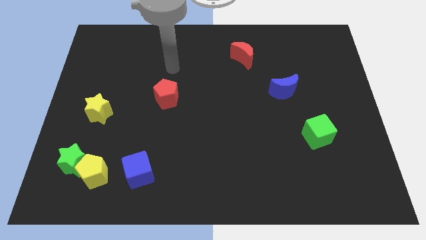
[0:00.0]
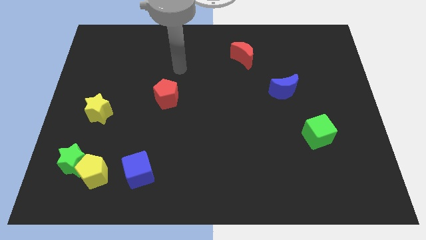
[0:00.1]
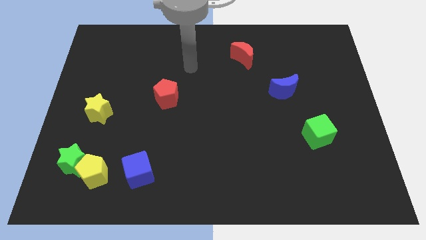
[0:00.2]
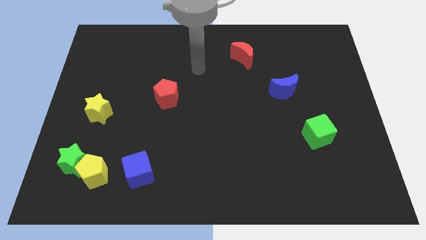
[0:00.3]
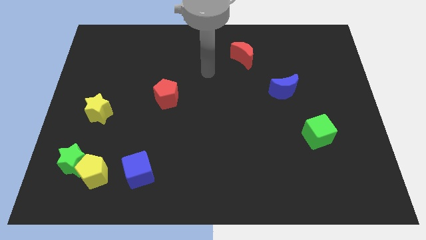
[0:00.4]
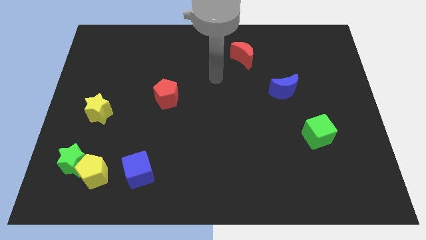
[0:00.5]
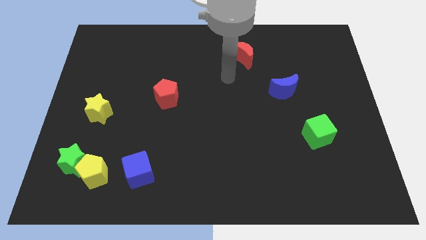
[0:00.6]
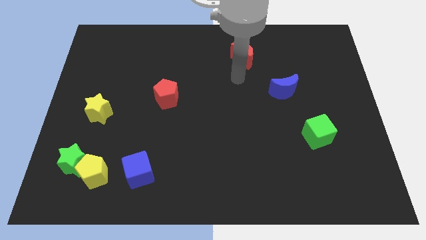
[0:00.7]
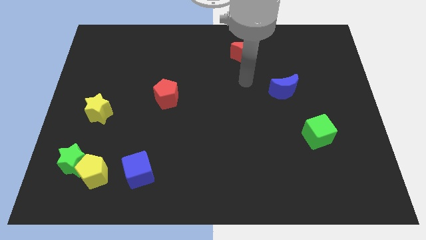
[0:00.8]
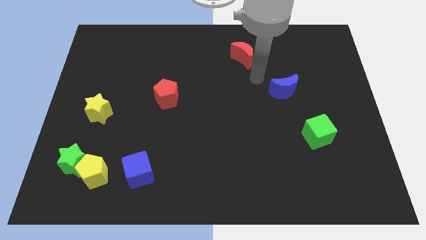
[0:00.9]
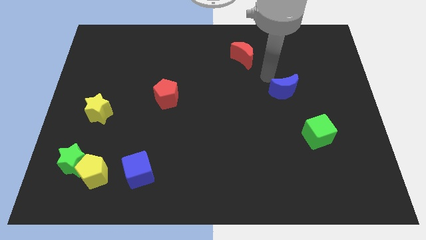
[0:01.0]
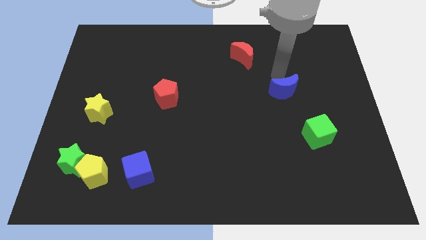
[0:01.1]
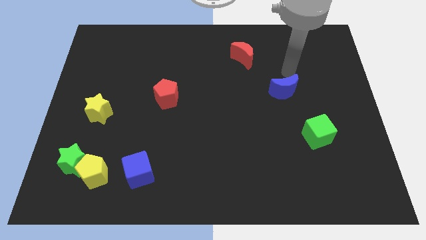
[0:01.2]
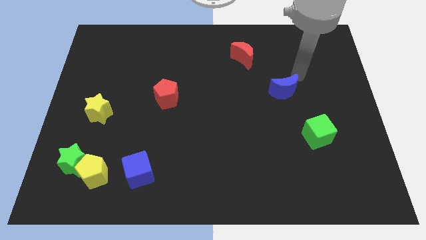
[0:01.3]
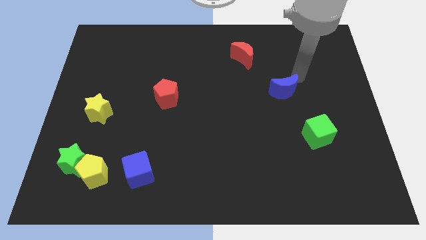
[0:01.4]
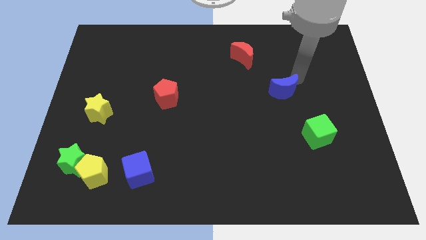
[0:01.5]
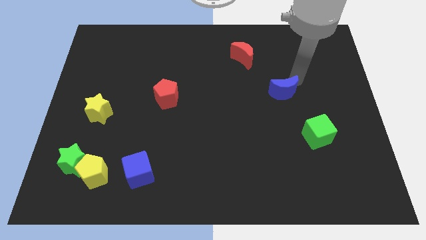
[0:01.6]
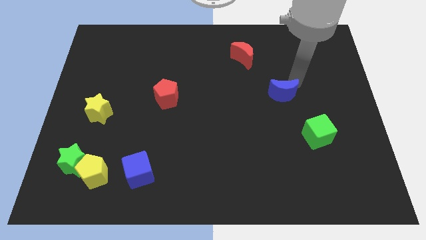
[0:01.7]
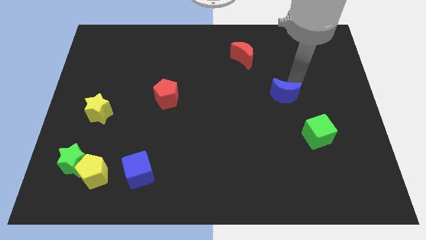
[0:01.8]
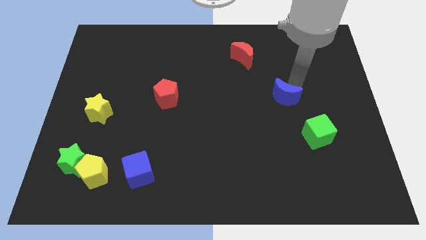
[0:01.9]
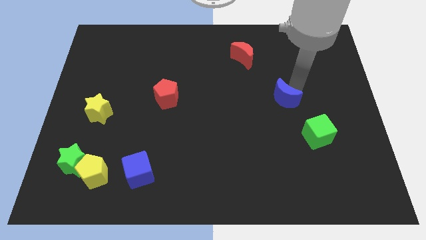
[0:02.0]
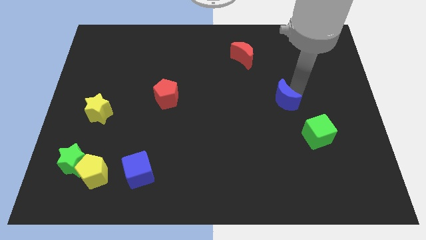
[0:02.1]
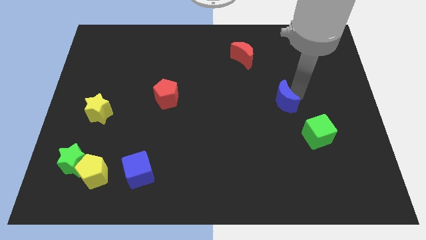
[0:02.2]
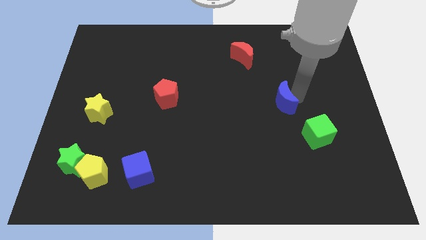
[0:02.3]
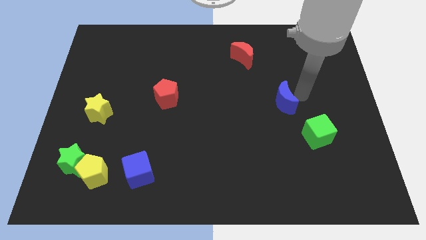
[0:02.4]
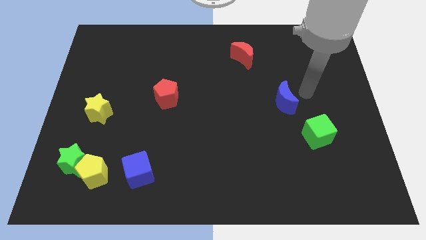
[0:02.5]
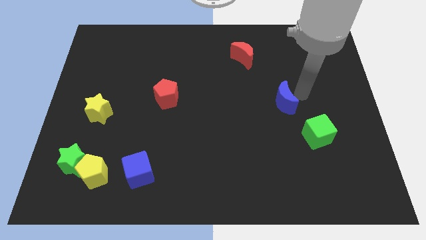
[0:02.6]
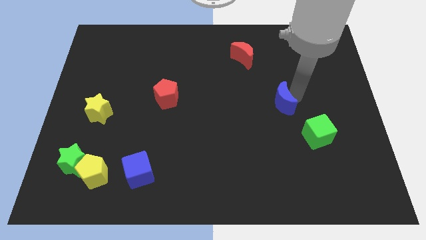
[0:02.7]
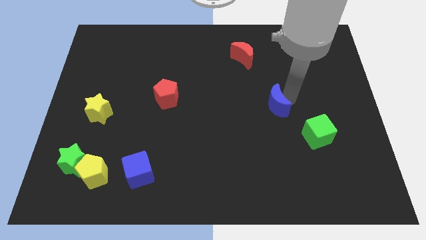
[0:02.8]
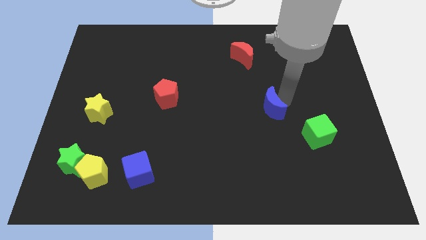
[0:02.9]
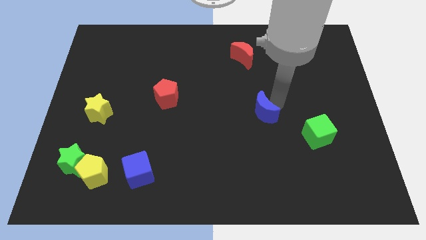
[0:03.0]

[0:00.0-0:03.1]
slide the blue moon diagonally down and left somewhat

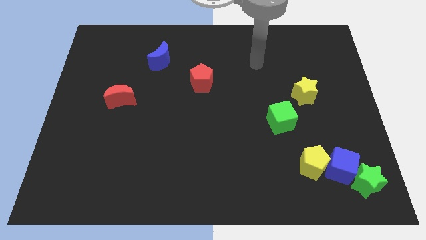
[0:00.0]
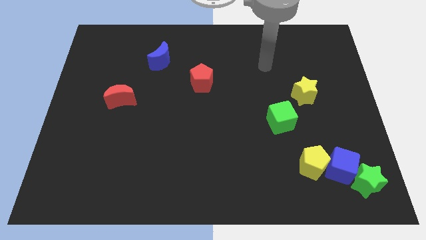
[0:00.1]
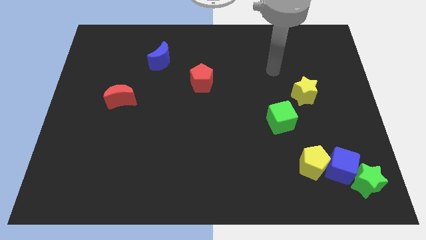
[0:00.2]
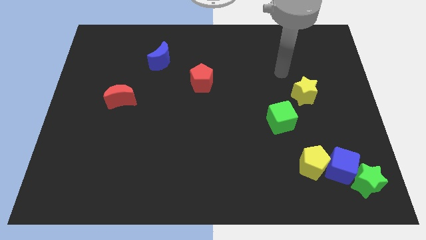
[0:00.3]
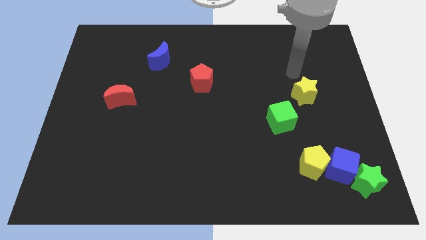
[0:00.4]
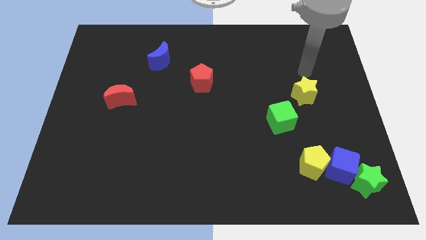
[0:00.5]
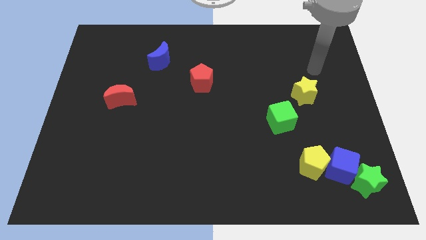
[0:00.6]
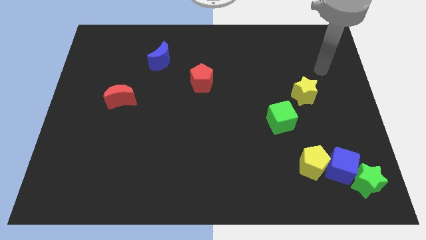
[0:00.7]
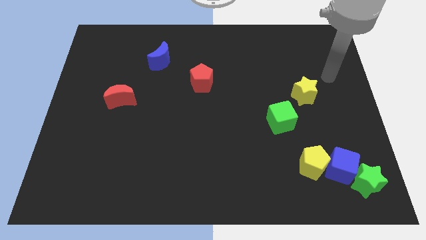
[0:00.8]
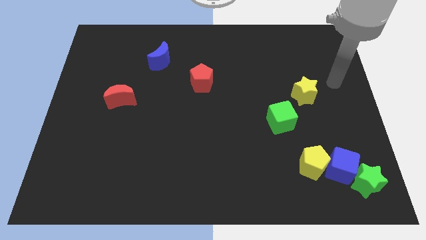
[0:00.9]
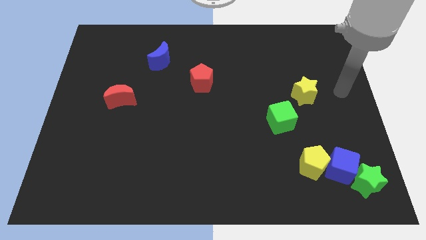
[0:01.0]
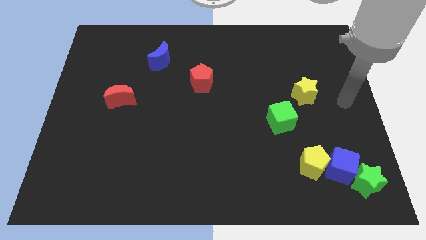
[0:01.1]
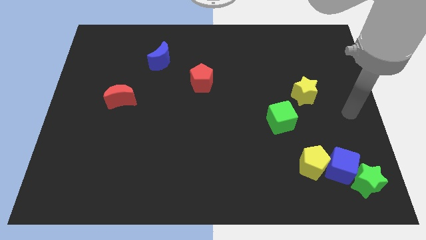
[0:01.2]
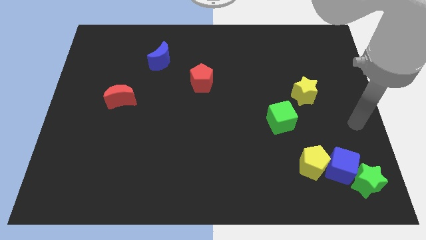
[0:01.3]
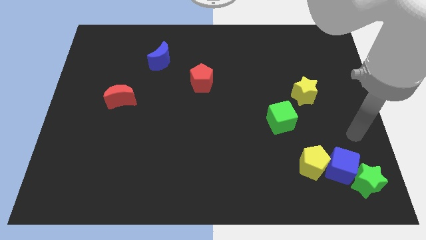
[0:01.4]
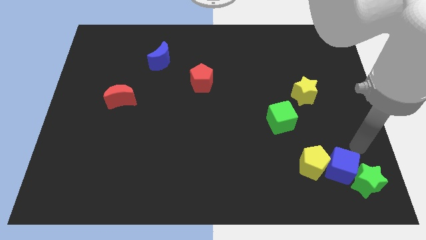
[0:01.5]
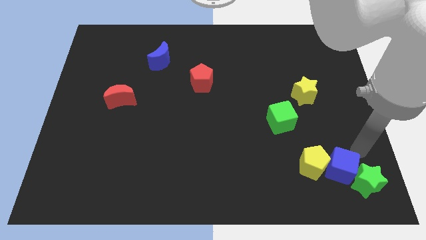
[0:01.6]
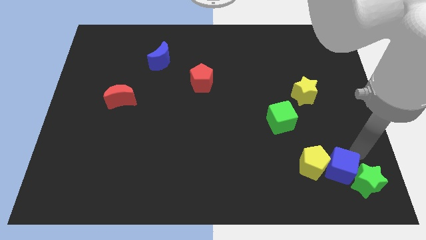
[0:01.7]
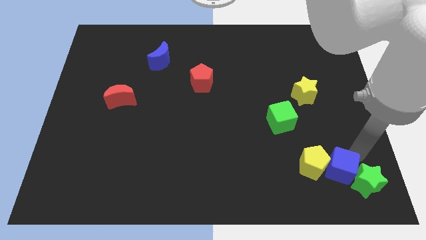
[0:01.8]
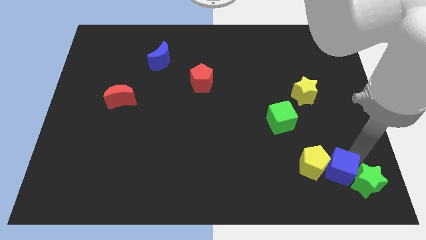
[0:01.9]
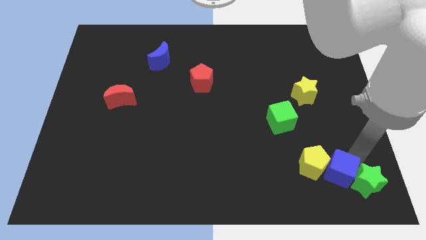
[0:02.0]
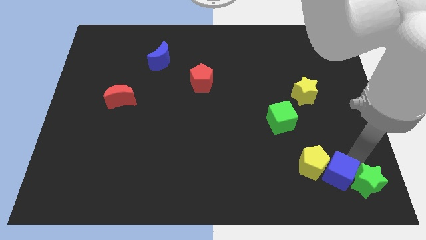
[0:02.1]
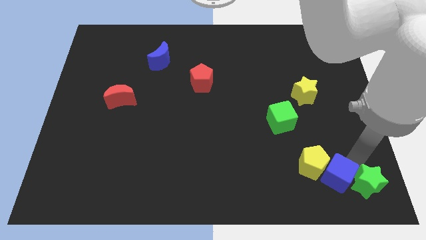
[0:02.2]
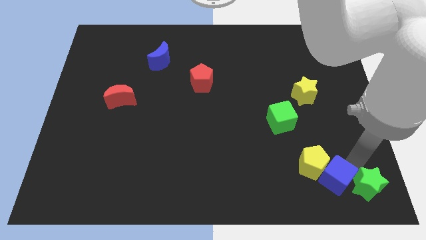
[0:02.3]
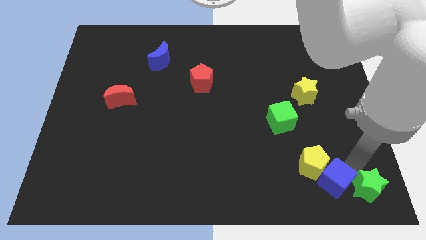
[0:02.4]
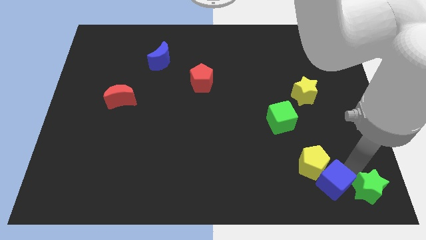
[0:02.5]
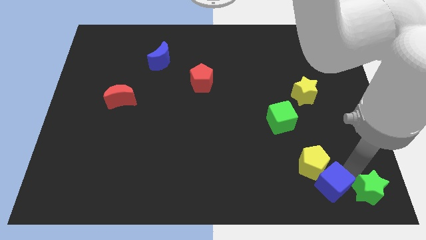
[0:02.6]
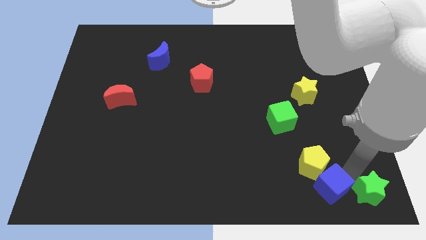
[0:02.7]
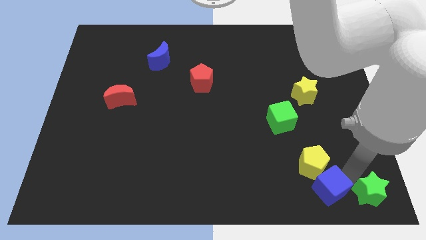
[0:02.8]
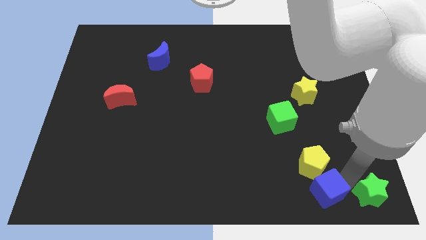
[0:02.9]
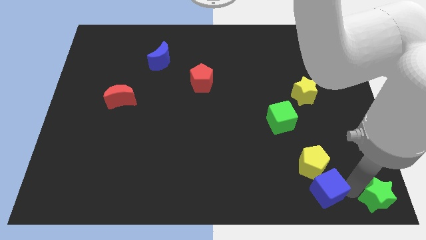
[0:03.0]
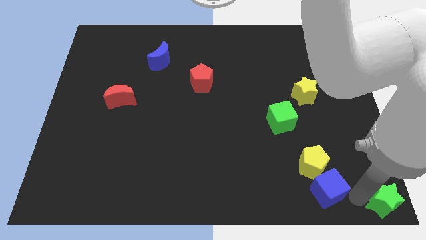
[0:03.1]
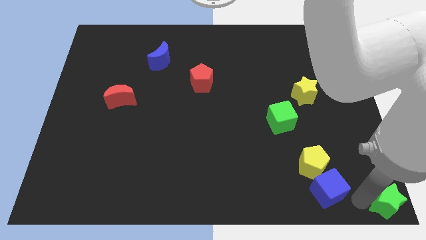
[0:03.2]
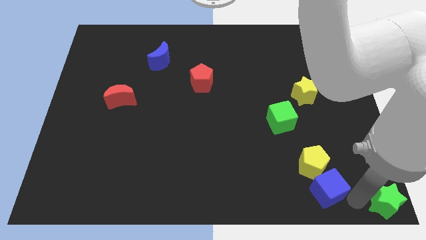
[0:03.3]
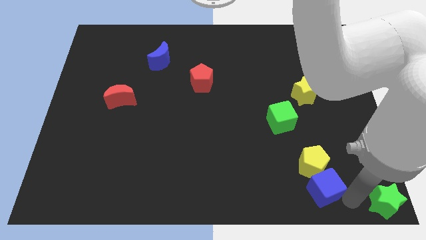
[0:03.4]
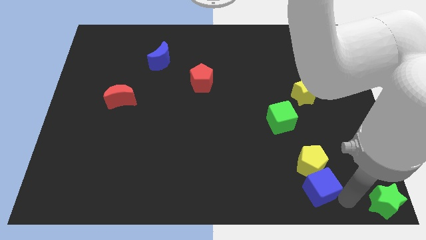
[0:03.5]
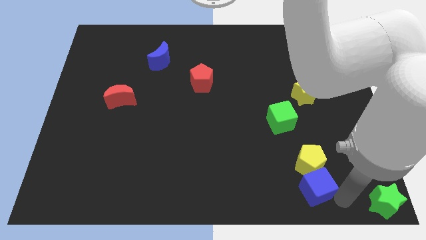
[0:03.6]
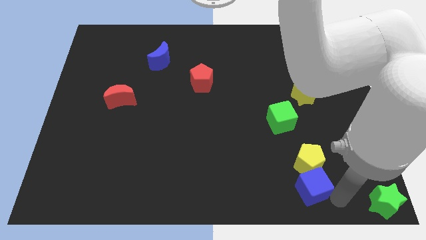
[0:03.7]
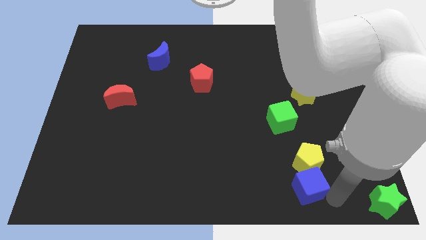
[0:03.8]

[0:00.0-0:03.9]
slide the blue cube a little bit left

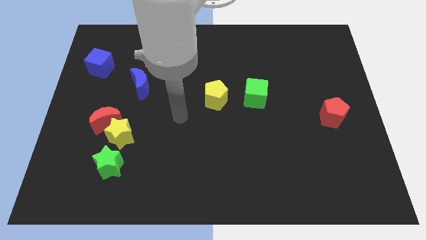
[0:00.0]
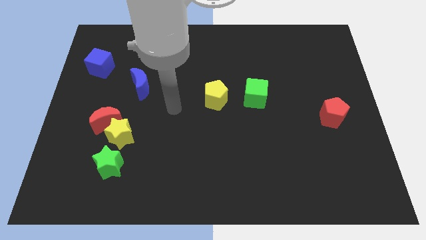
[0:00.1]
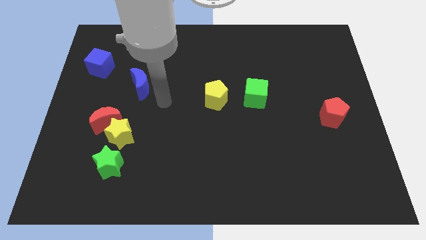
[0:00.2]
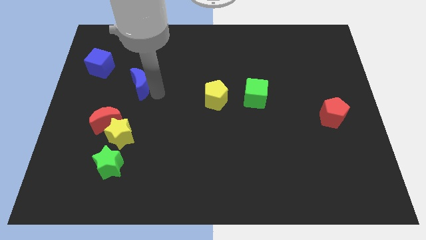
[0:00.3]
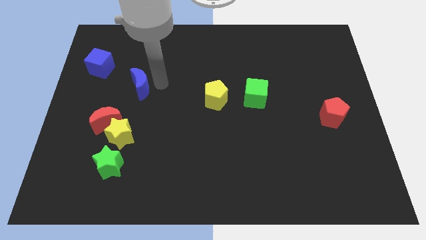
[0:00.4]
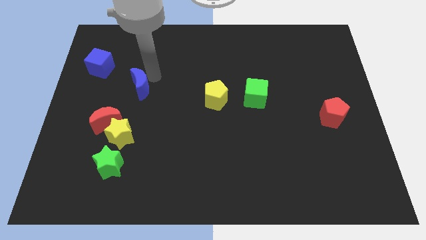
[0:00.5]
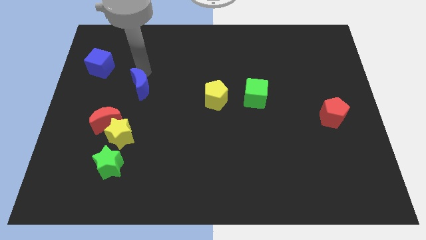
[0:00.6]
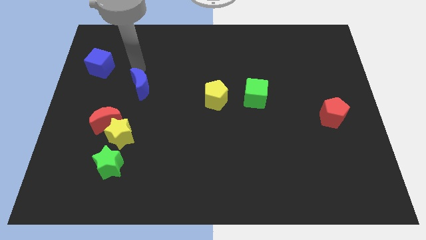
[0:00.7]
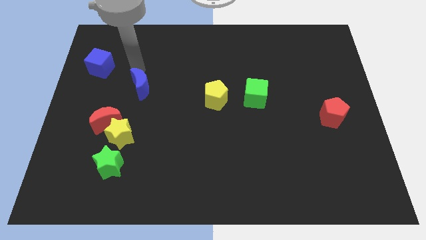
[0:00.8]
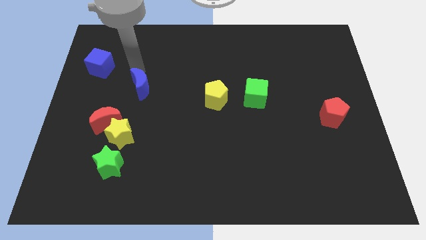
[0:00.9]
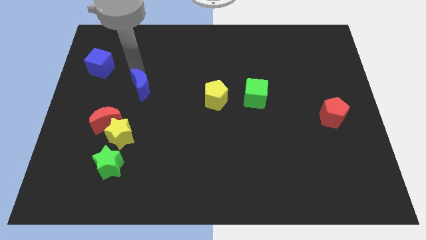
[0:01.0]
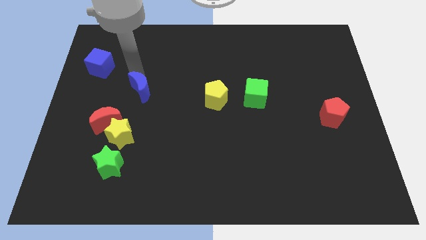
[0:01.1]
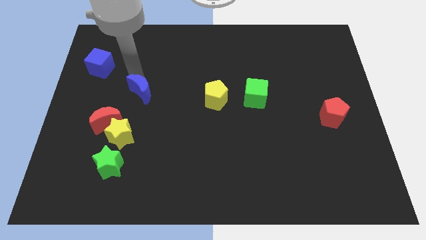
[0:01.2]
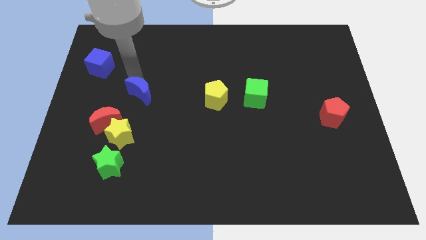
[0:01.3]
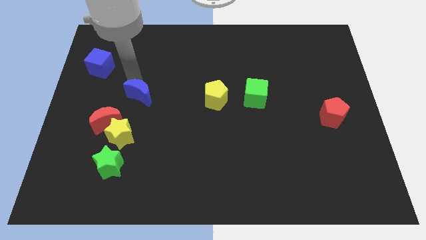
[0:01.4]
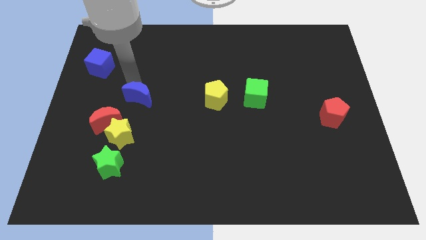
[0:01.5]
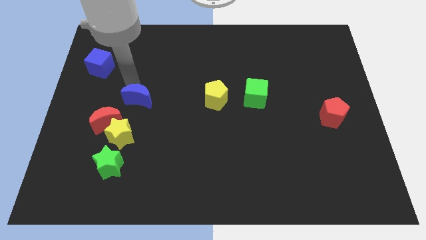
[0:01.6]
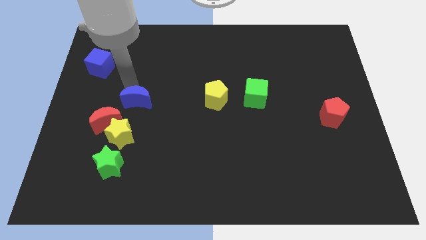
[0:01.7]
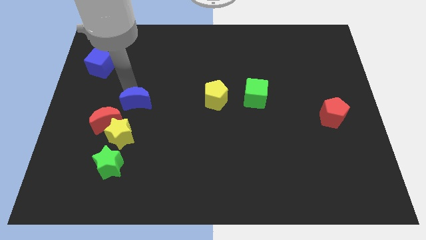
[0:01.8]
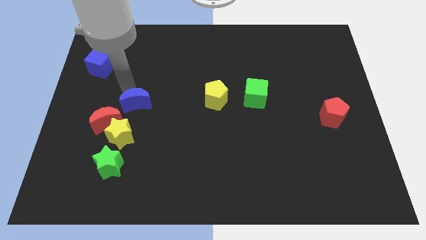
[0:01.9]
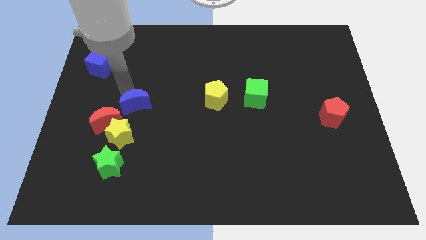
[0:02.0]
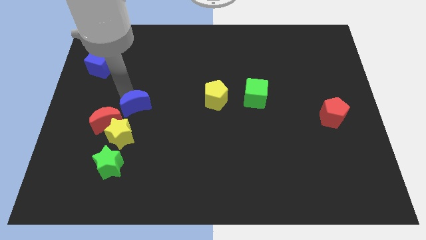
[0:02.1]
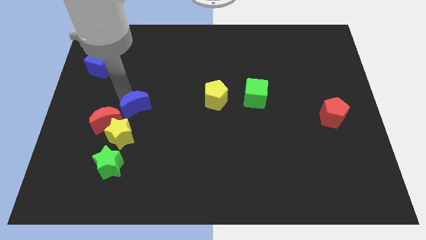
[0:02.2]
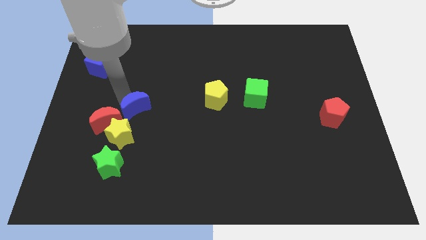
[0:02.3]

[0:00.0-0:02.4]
move the blue moon somewhat downwards
